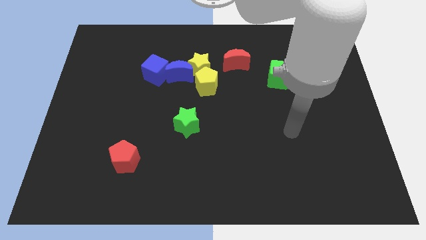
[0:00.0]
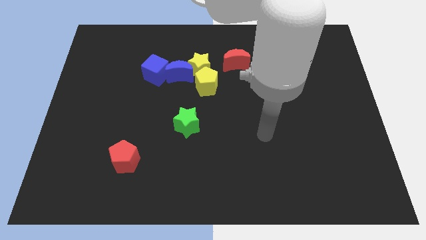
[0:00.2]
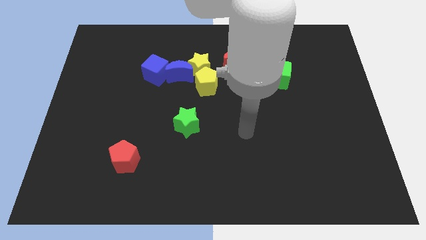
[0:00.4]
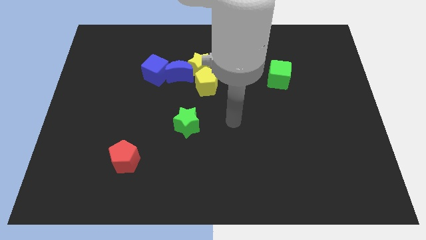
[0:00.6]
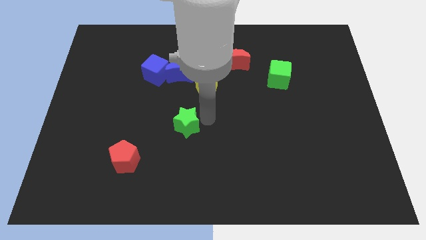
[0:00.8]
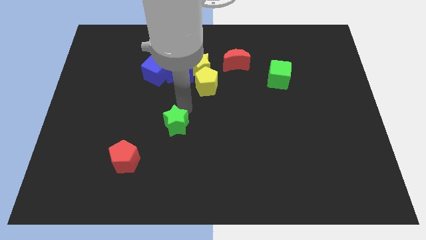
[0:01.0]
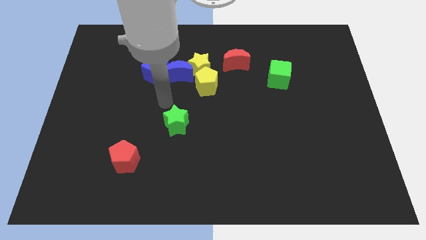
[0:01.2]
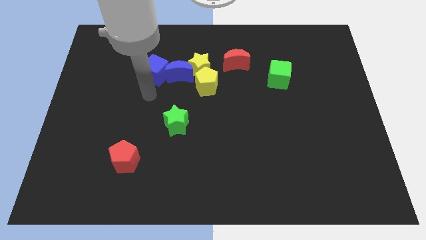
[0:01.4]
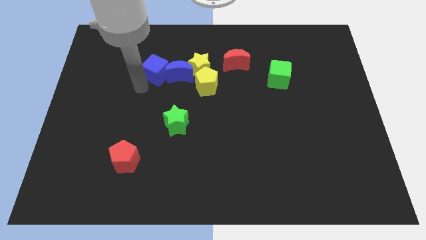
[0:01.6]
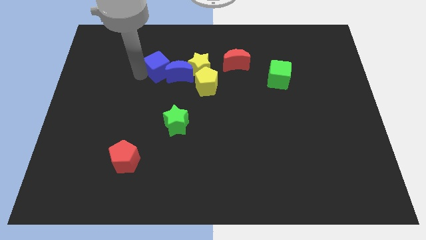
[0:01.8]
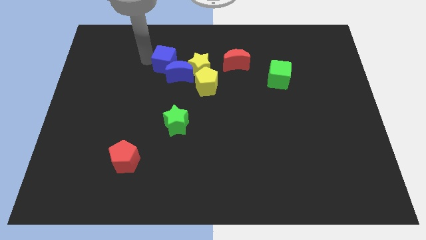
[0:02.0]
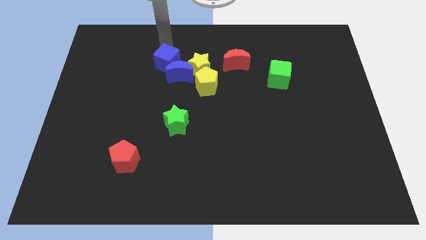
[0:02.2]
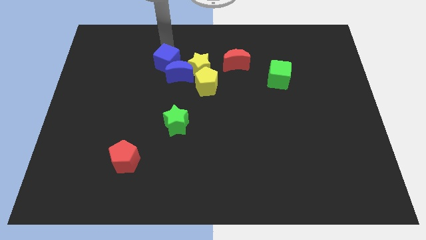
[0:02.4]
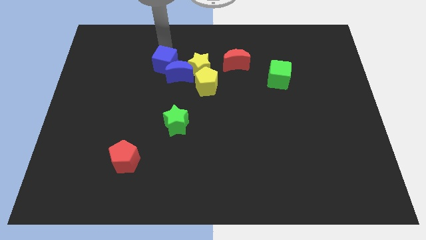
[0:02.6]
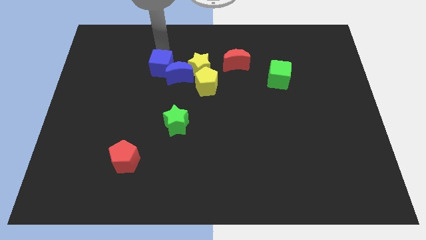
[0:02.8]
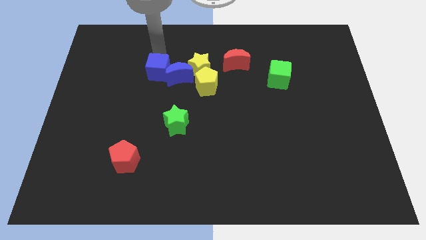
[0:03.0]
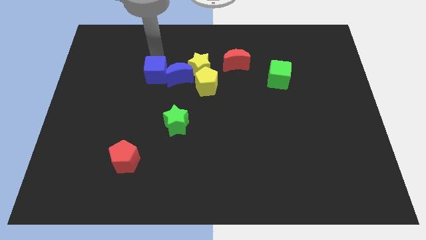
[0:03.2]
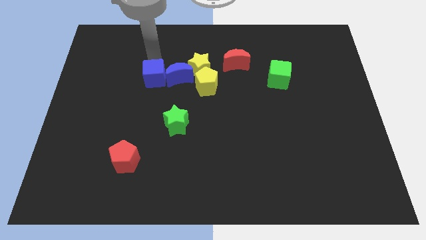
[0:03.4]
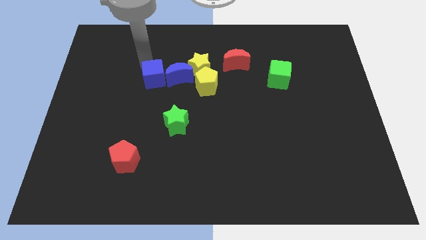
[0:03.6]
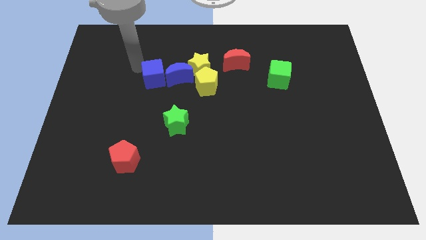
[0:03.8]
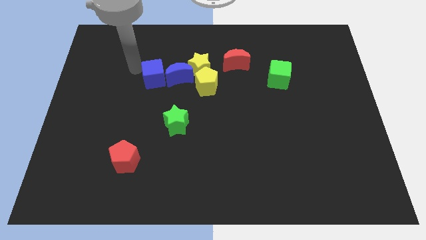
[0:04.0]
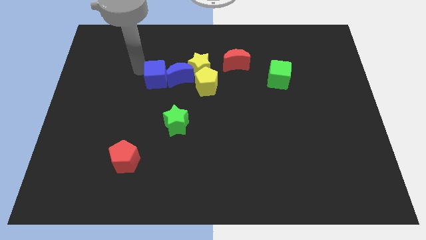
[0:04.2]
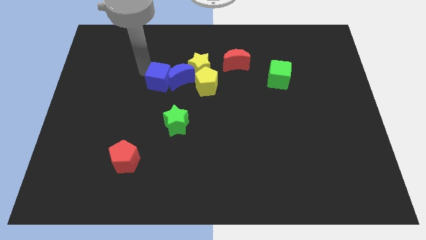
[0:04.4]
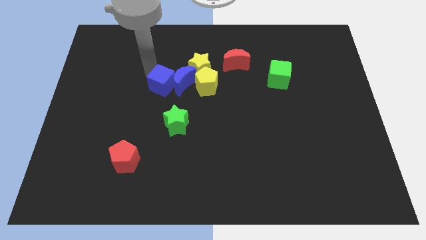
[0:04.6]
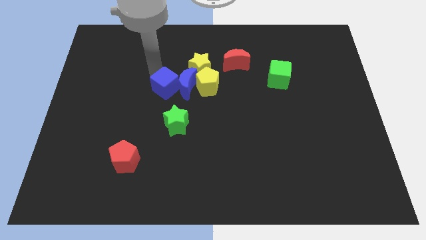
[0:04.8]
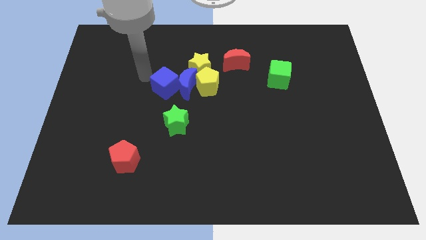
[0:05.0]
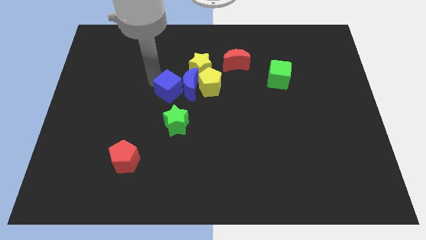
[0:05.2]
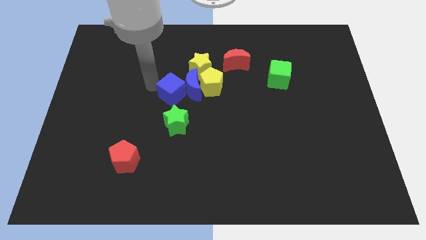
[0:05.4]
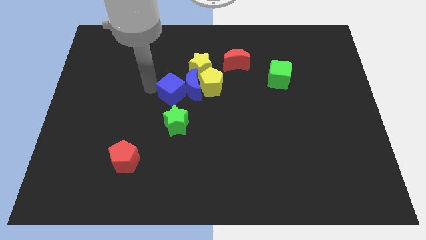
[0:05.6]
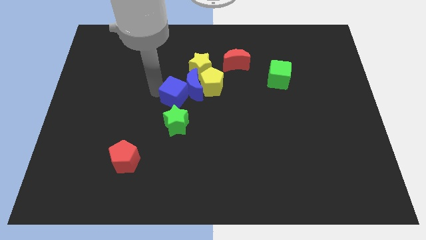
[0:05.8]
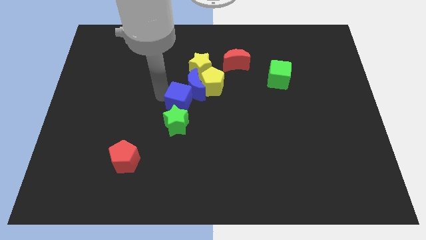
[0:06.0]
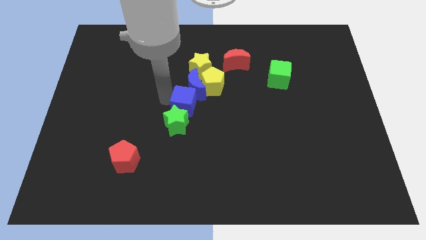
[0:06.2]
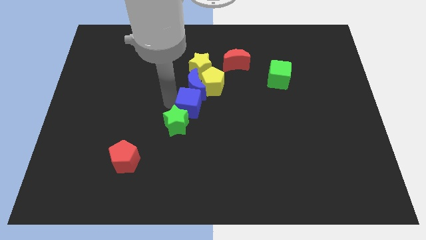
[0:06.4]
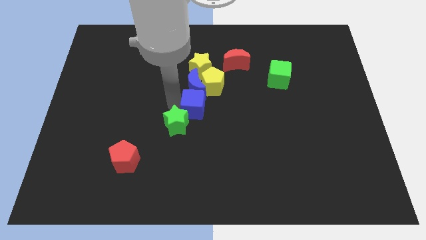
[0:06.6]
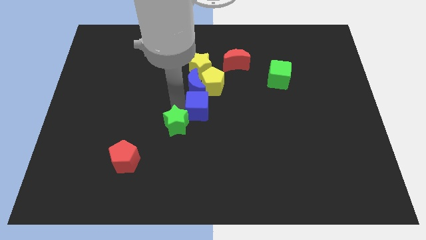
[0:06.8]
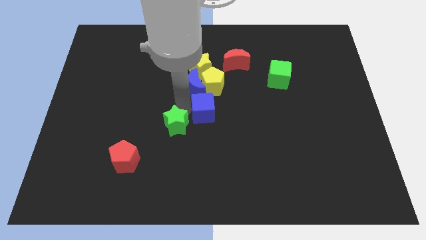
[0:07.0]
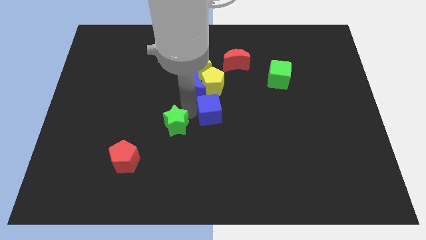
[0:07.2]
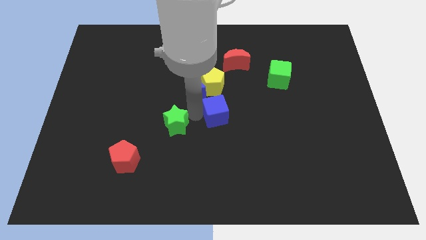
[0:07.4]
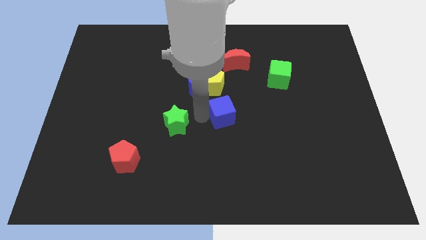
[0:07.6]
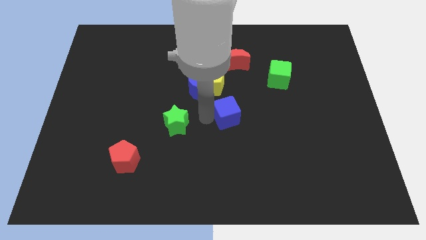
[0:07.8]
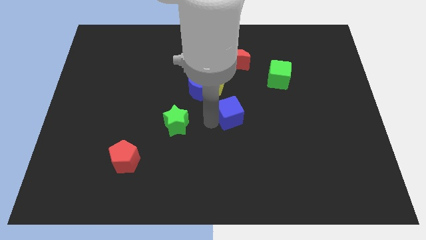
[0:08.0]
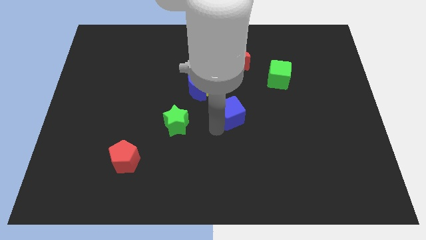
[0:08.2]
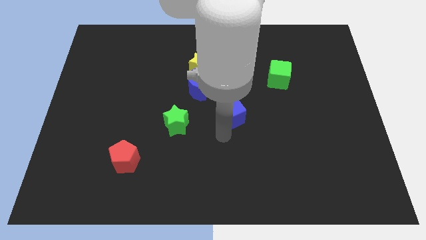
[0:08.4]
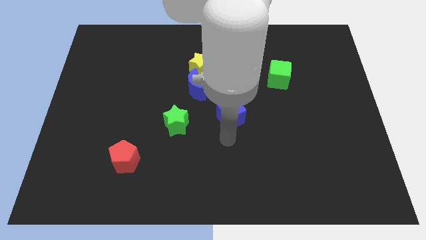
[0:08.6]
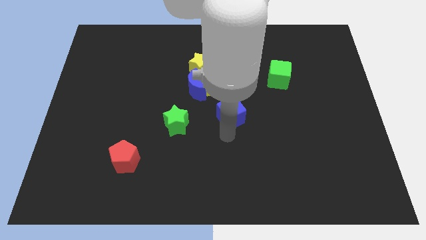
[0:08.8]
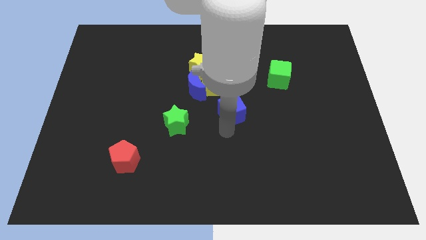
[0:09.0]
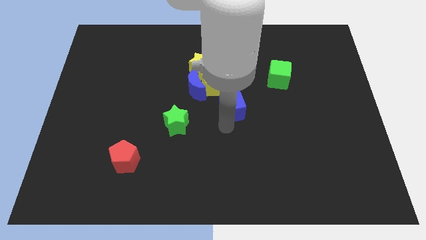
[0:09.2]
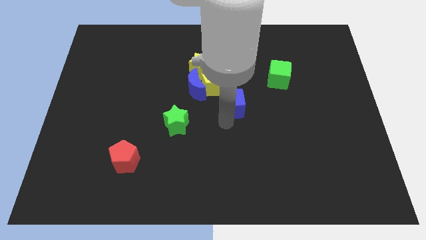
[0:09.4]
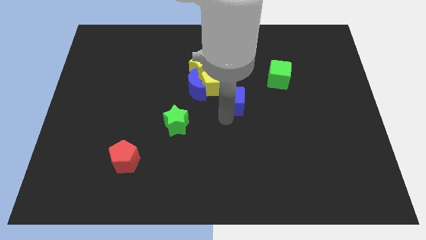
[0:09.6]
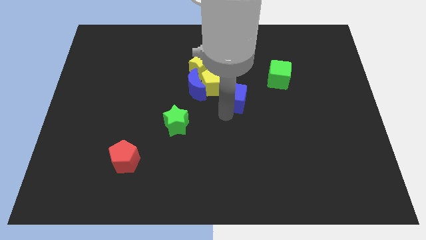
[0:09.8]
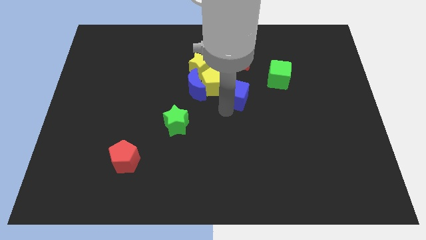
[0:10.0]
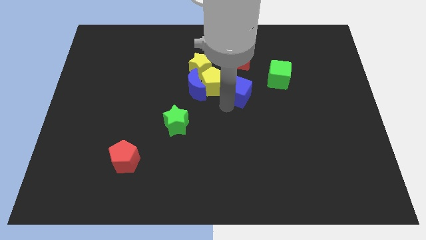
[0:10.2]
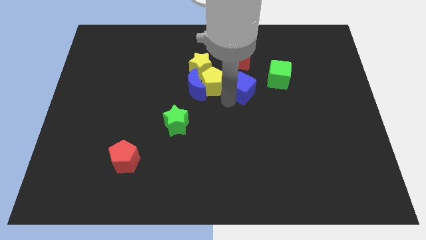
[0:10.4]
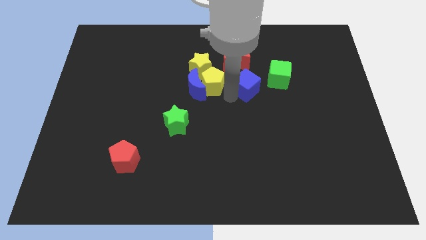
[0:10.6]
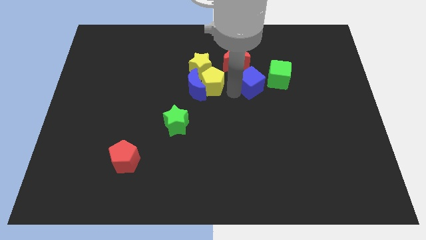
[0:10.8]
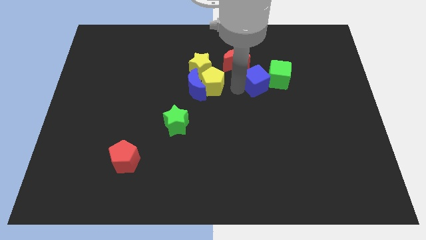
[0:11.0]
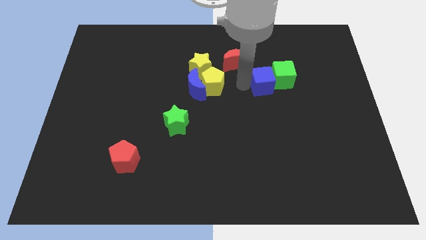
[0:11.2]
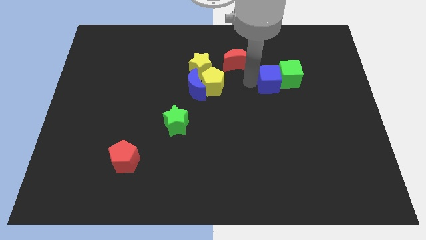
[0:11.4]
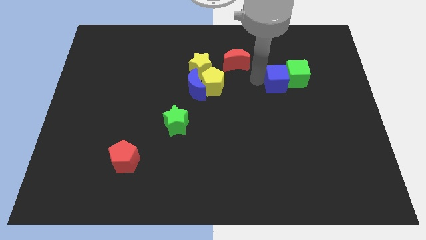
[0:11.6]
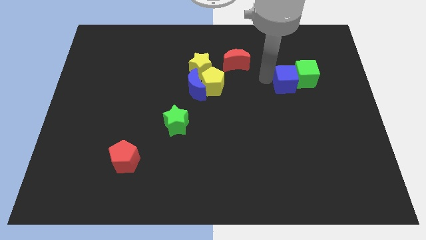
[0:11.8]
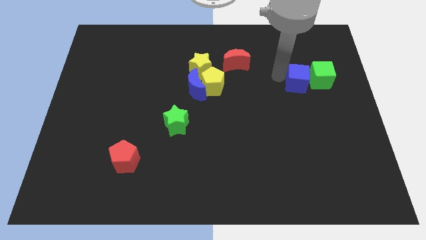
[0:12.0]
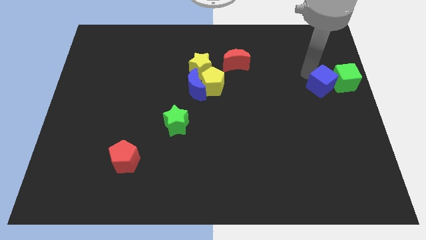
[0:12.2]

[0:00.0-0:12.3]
move the blue cube to the center right
